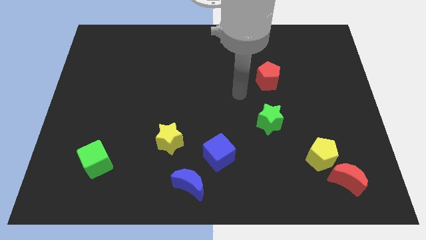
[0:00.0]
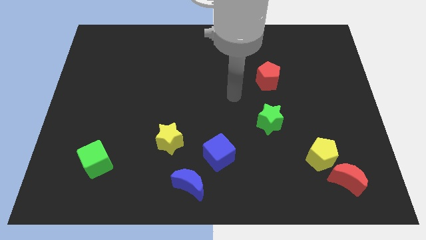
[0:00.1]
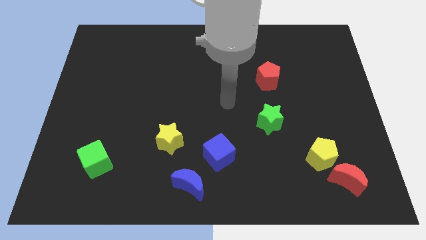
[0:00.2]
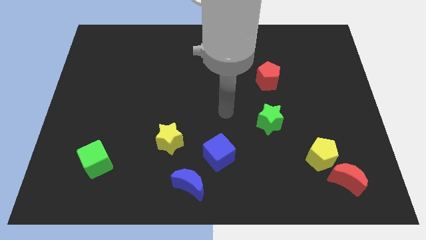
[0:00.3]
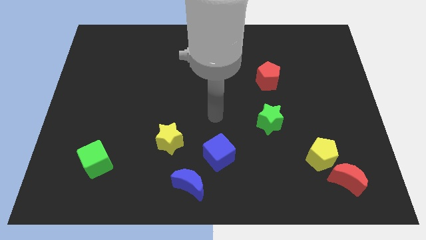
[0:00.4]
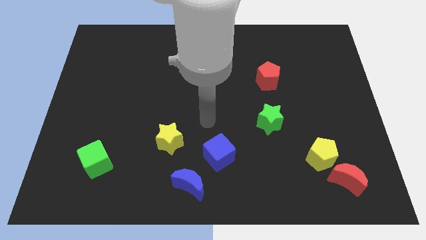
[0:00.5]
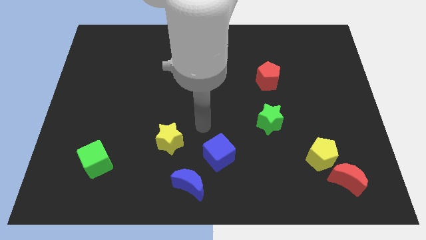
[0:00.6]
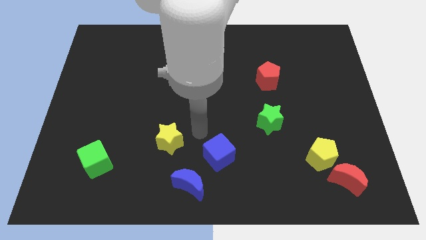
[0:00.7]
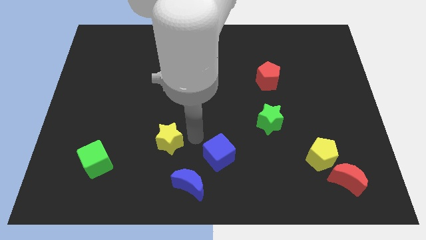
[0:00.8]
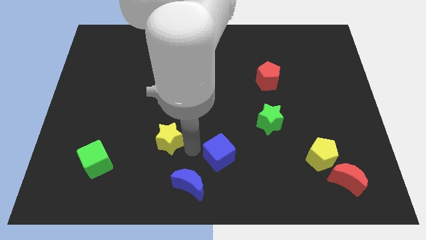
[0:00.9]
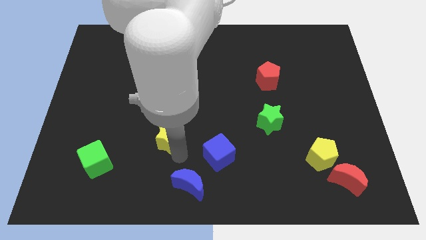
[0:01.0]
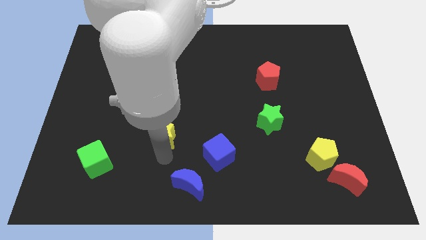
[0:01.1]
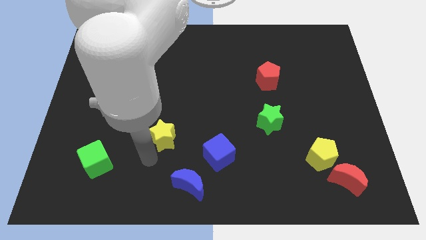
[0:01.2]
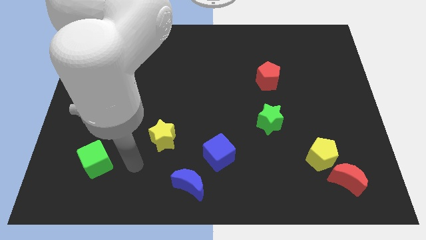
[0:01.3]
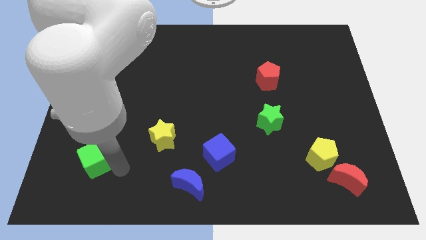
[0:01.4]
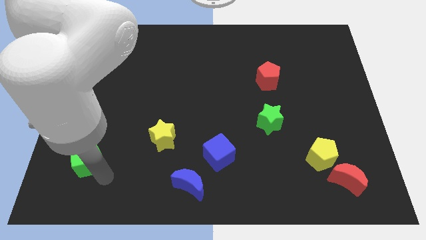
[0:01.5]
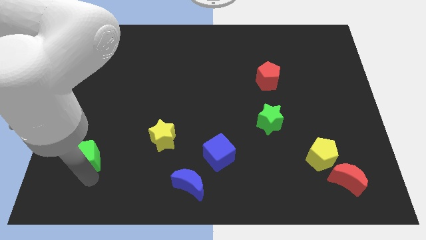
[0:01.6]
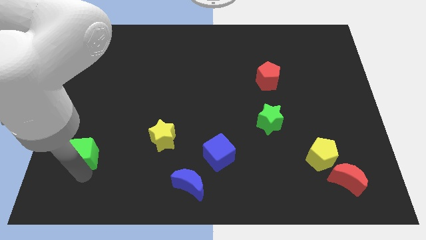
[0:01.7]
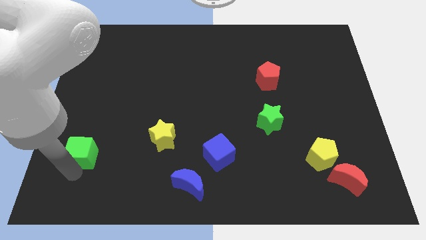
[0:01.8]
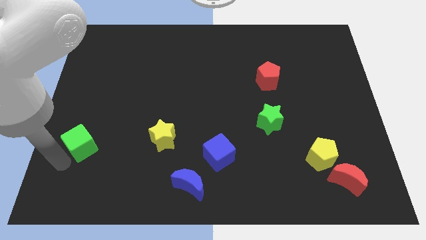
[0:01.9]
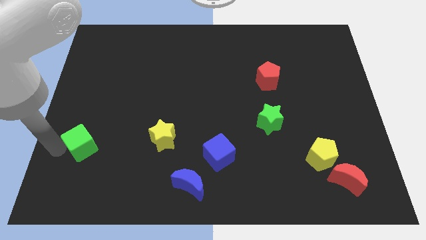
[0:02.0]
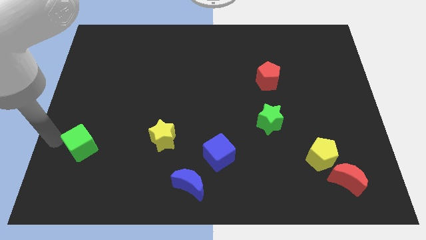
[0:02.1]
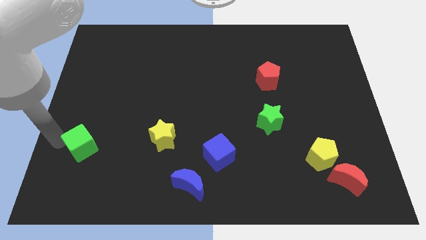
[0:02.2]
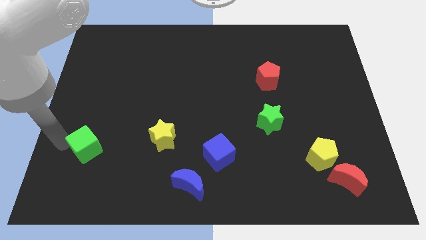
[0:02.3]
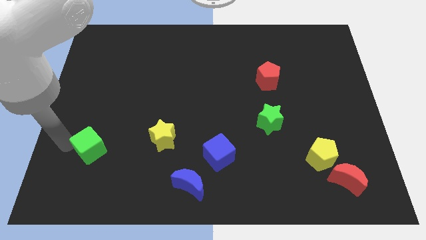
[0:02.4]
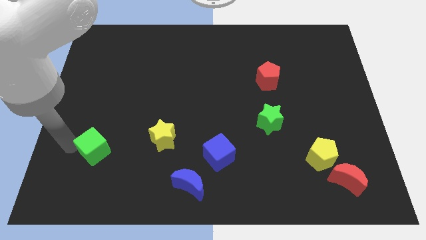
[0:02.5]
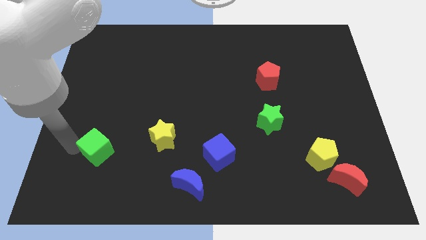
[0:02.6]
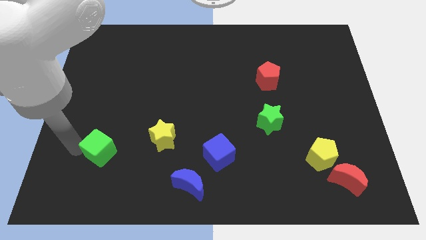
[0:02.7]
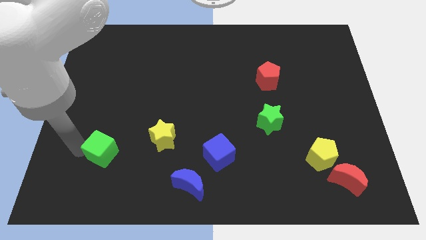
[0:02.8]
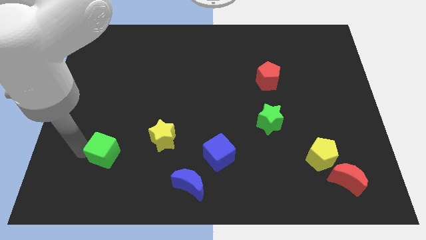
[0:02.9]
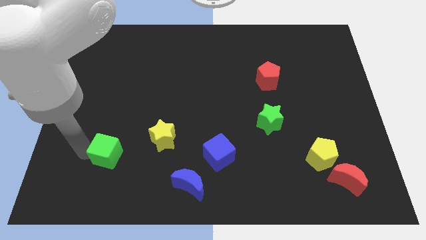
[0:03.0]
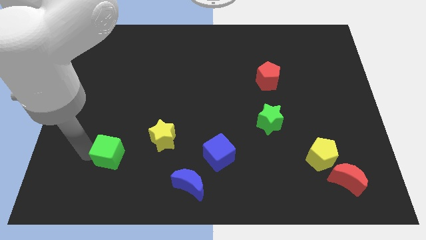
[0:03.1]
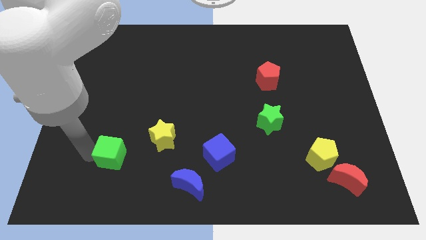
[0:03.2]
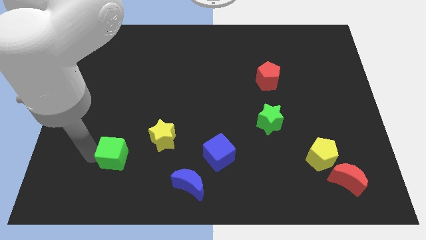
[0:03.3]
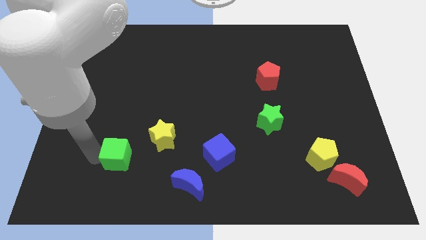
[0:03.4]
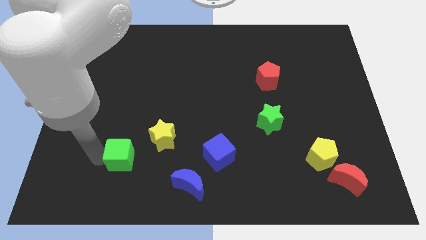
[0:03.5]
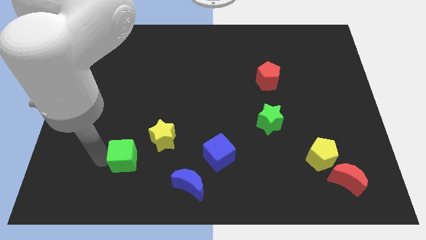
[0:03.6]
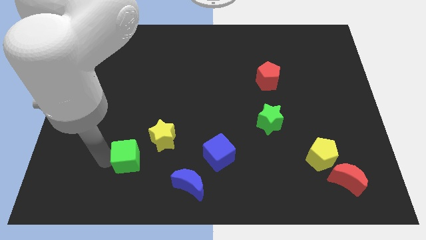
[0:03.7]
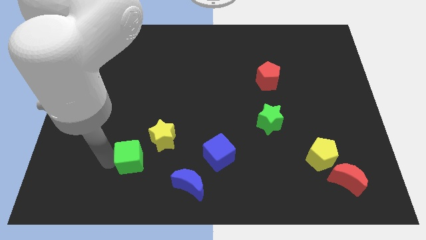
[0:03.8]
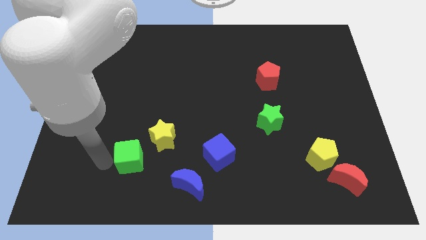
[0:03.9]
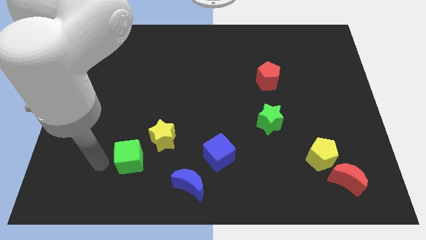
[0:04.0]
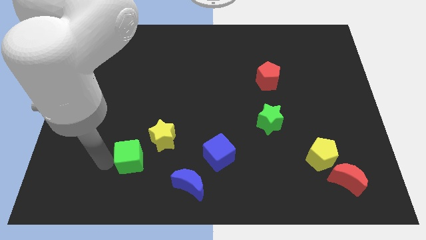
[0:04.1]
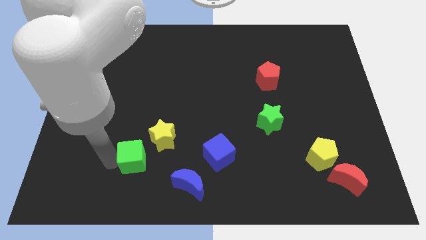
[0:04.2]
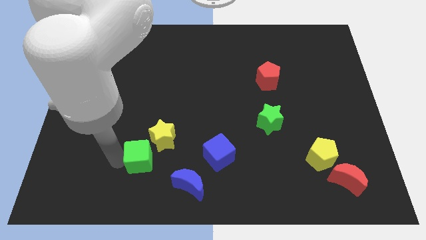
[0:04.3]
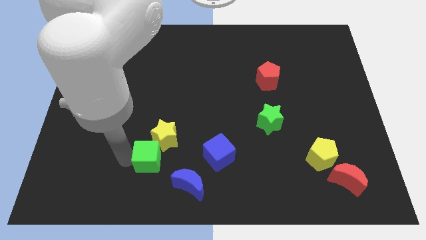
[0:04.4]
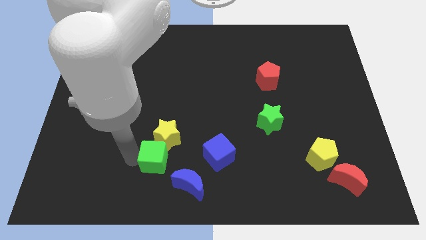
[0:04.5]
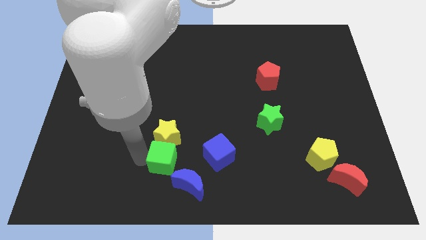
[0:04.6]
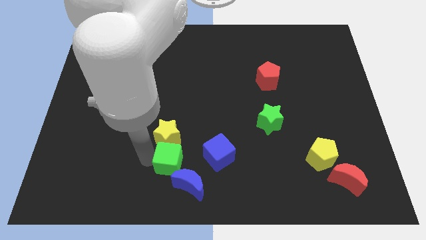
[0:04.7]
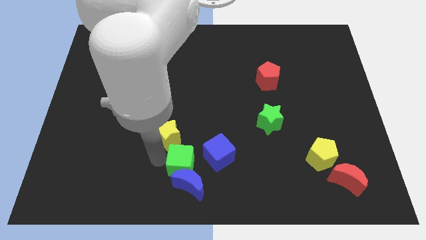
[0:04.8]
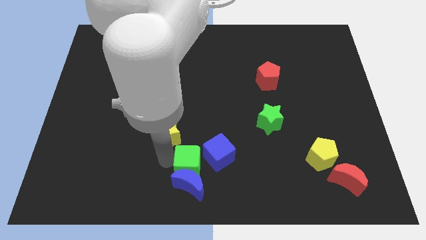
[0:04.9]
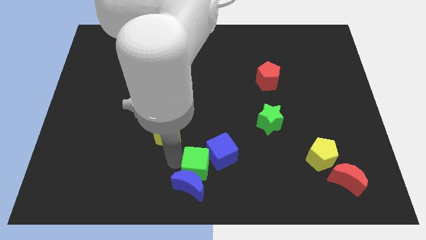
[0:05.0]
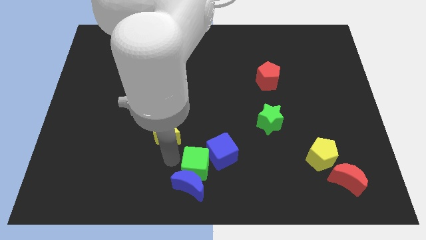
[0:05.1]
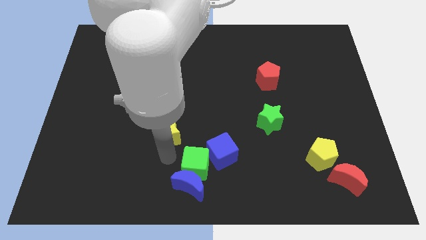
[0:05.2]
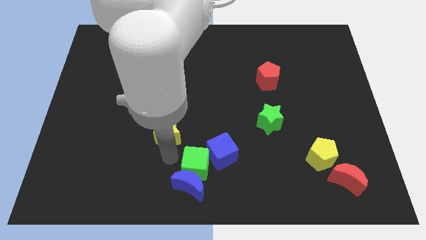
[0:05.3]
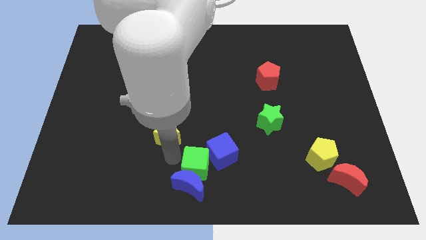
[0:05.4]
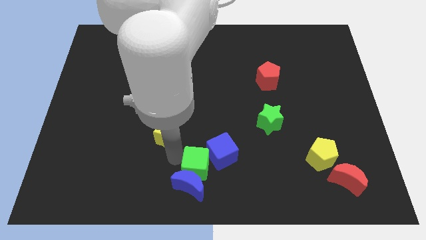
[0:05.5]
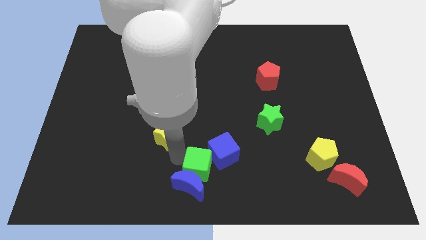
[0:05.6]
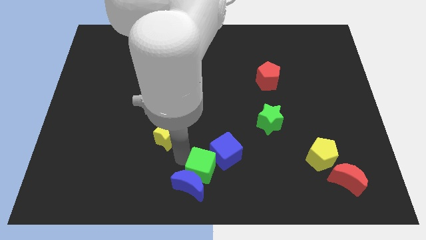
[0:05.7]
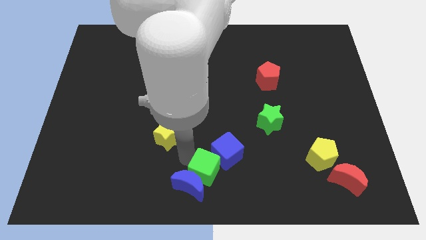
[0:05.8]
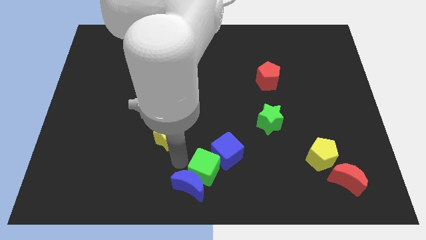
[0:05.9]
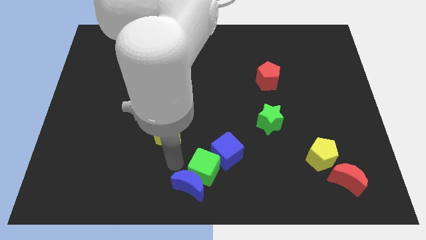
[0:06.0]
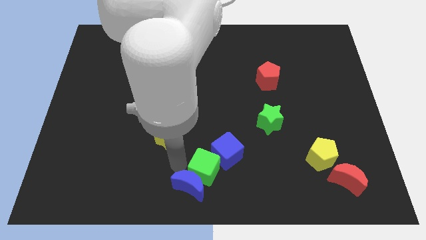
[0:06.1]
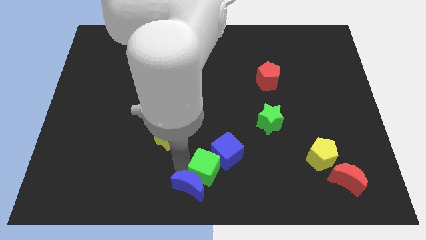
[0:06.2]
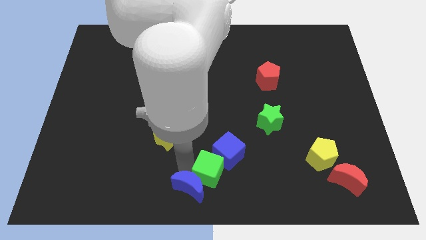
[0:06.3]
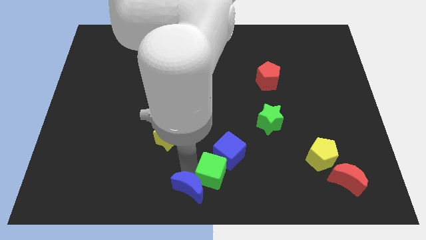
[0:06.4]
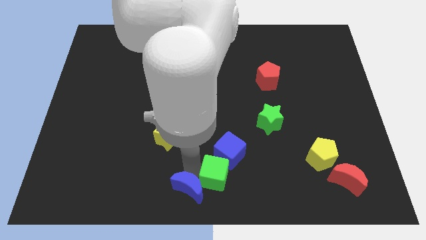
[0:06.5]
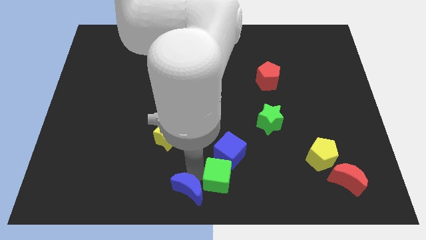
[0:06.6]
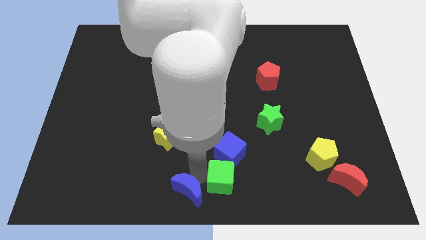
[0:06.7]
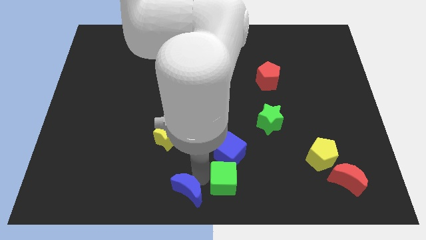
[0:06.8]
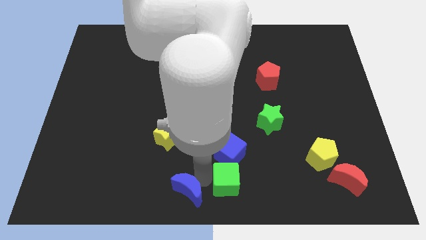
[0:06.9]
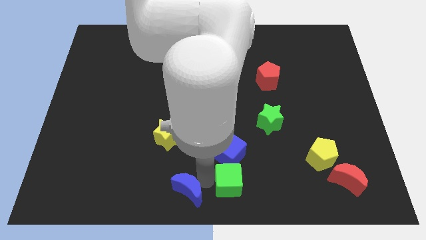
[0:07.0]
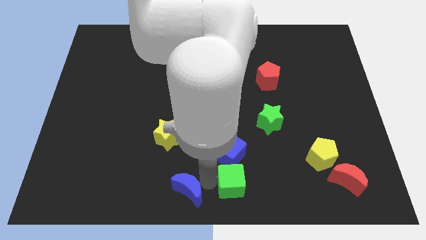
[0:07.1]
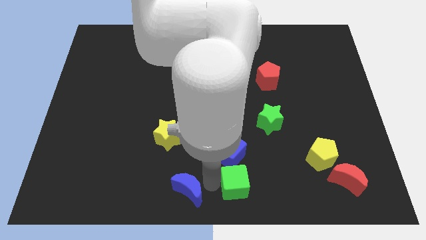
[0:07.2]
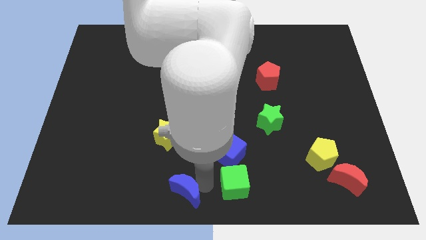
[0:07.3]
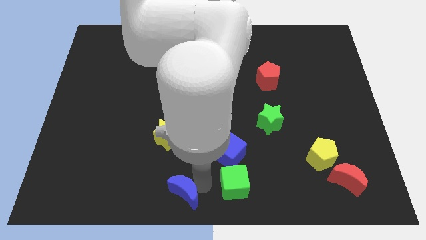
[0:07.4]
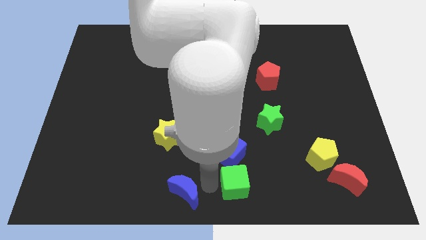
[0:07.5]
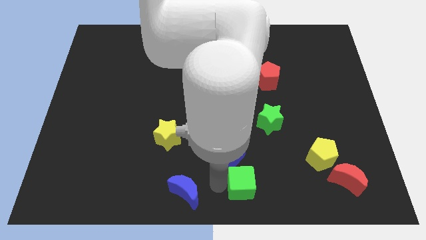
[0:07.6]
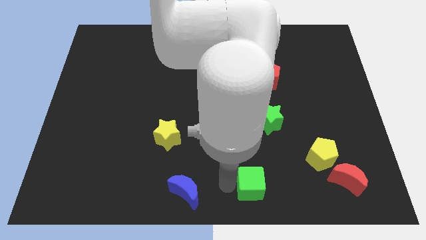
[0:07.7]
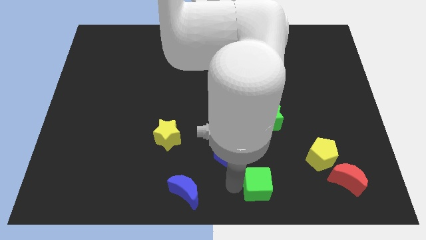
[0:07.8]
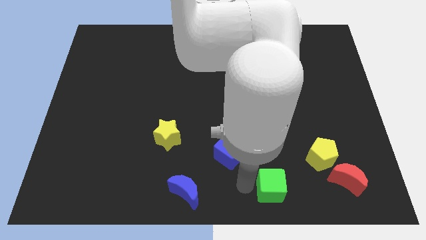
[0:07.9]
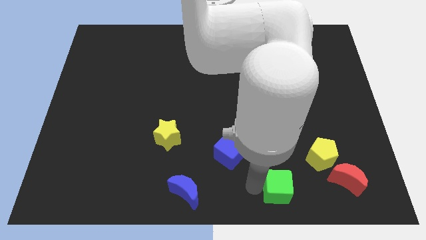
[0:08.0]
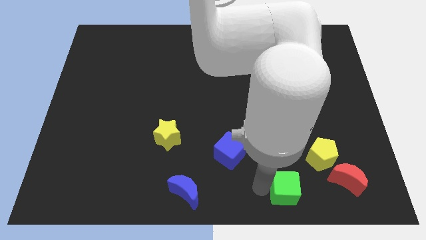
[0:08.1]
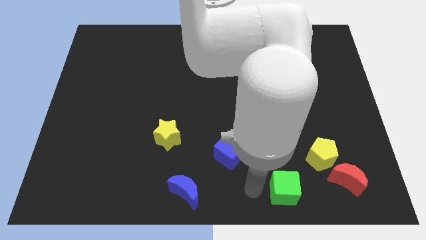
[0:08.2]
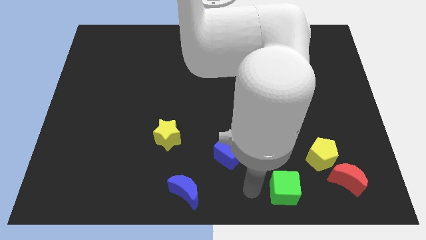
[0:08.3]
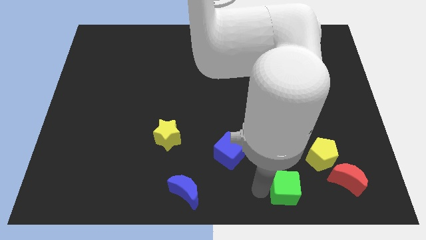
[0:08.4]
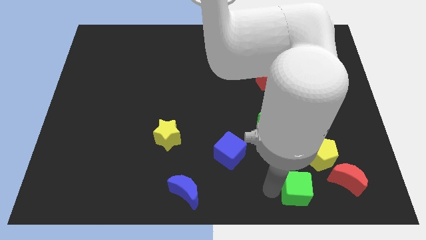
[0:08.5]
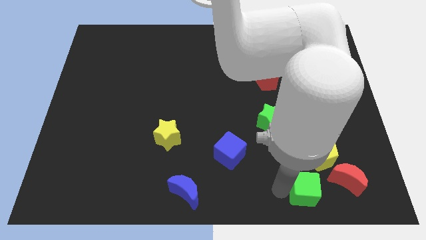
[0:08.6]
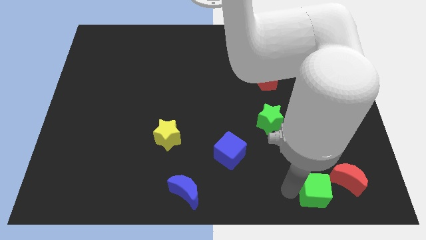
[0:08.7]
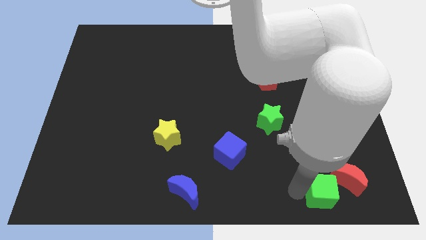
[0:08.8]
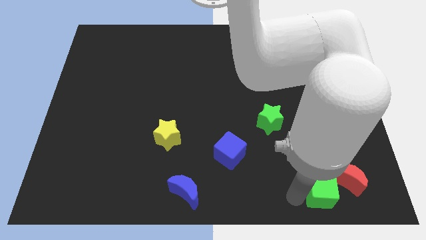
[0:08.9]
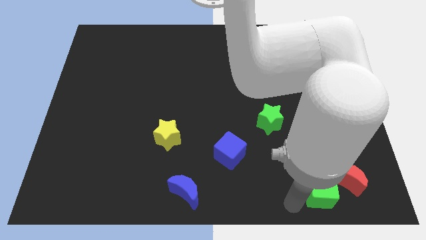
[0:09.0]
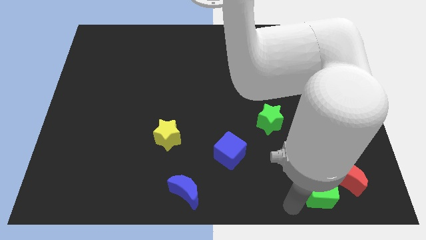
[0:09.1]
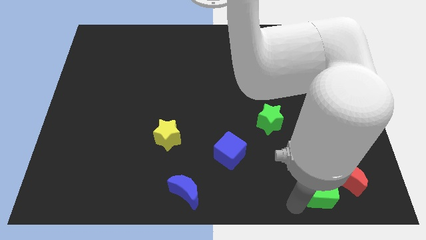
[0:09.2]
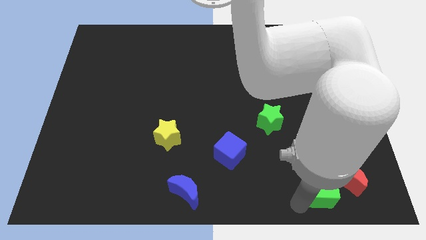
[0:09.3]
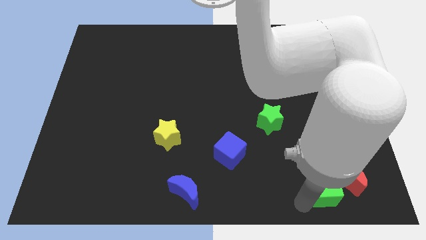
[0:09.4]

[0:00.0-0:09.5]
slide the green cube towards the red moon
